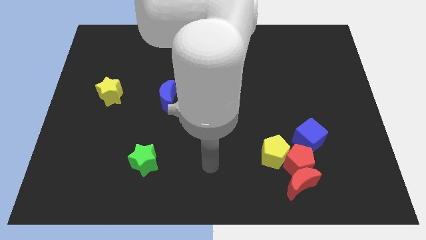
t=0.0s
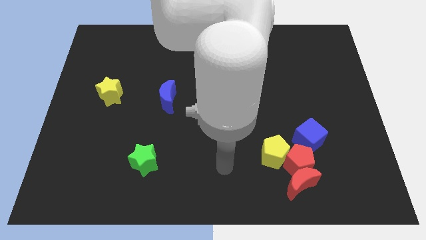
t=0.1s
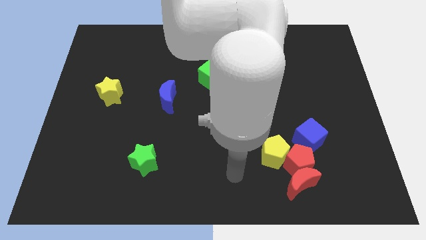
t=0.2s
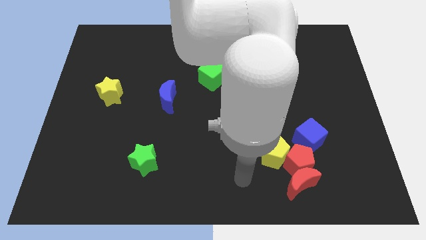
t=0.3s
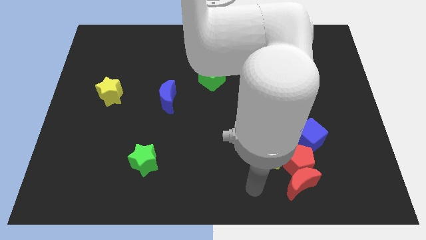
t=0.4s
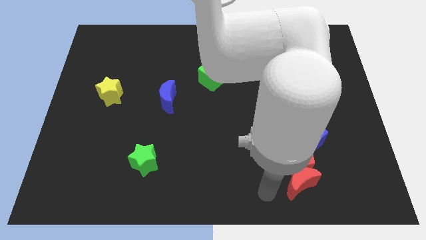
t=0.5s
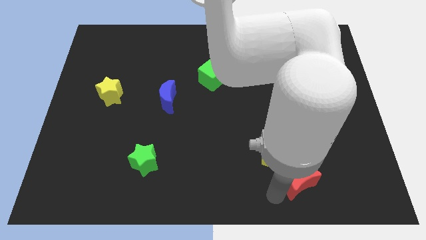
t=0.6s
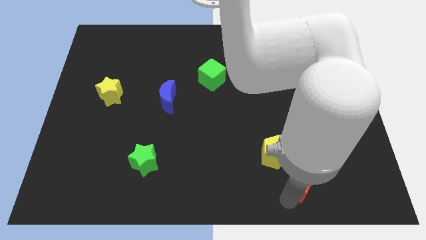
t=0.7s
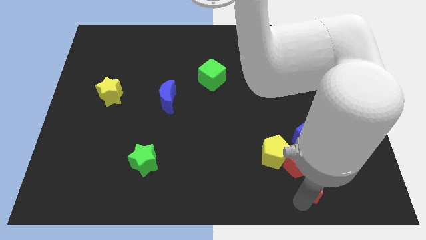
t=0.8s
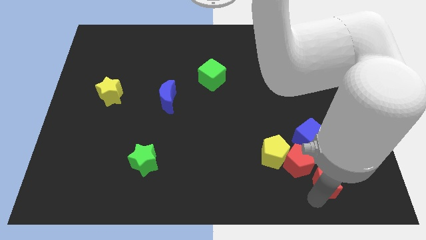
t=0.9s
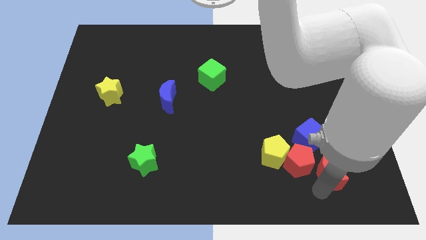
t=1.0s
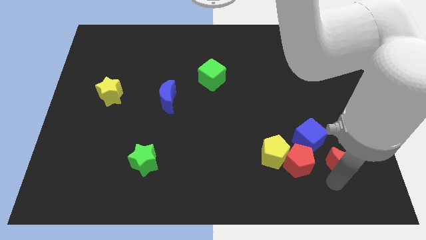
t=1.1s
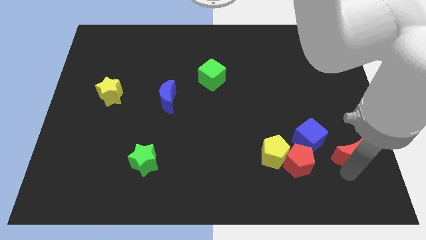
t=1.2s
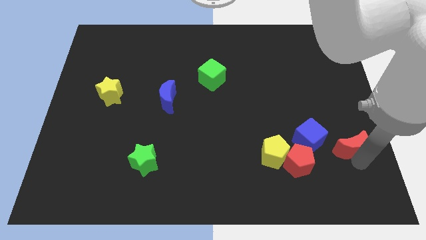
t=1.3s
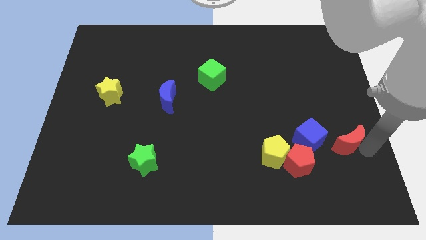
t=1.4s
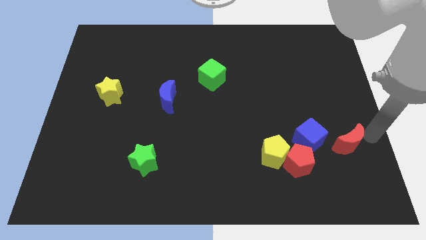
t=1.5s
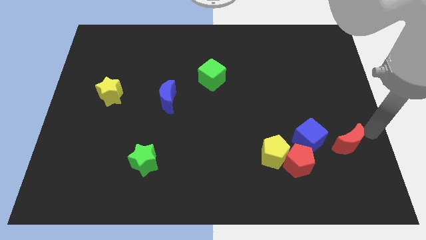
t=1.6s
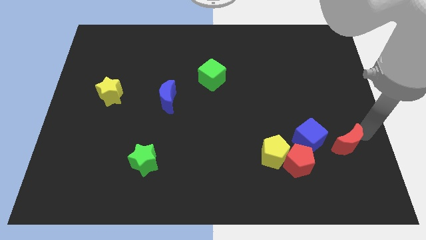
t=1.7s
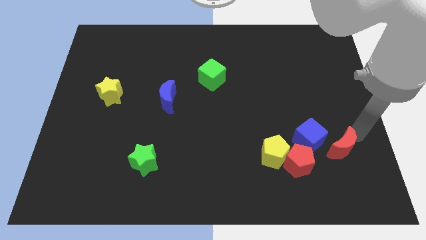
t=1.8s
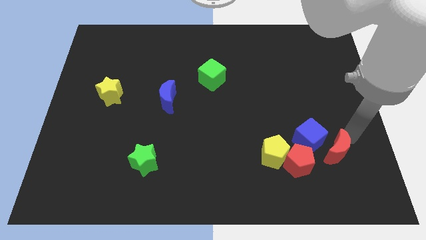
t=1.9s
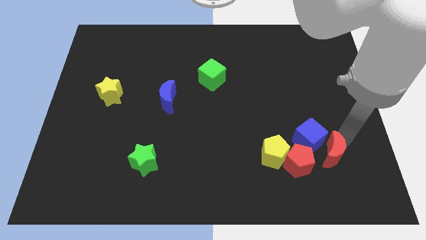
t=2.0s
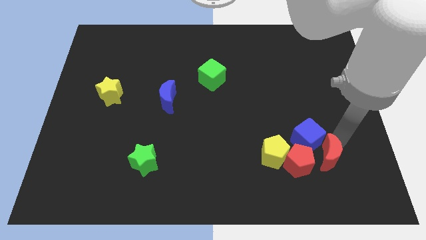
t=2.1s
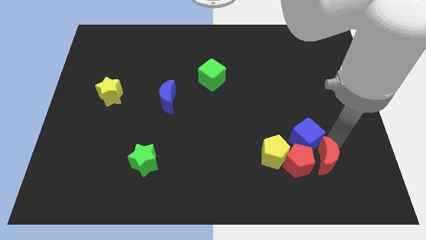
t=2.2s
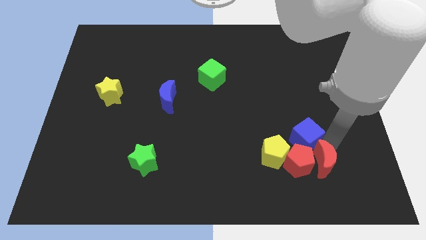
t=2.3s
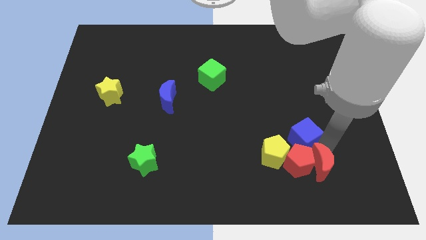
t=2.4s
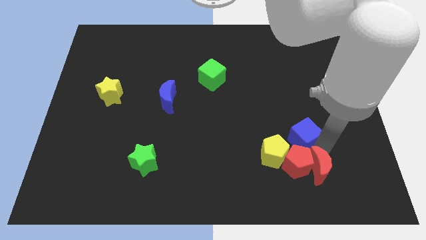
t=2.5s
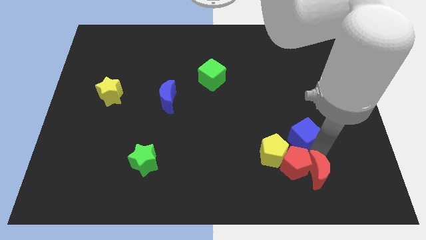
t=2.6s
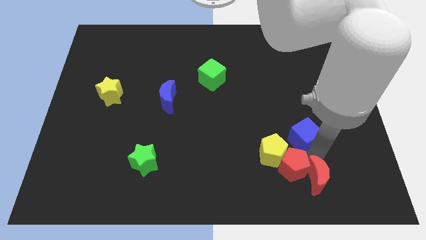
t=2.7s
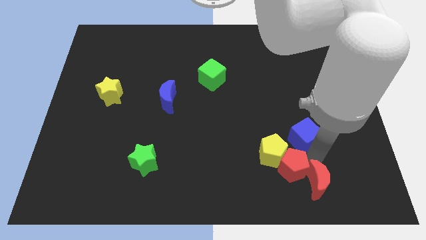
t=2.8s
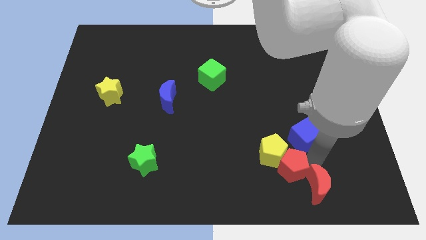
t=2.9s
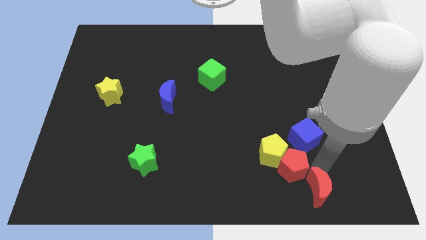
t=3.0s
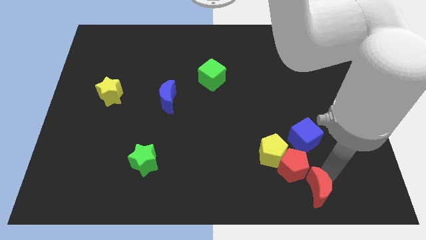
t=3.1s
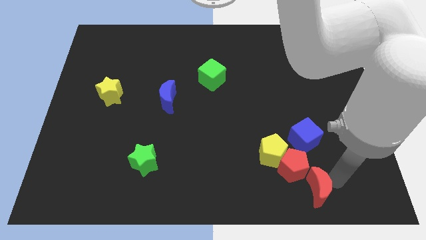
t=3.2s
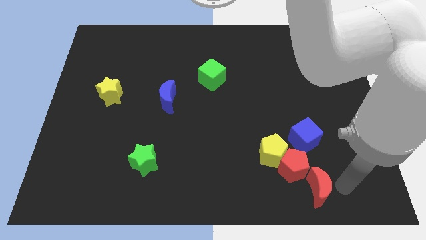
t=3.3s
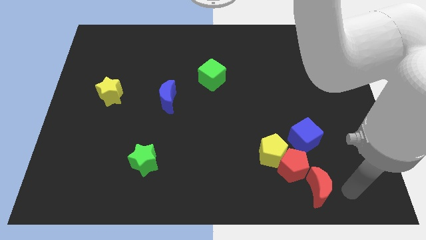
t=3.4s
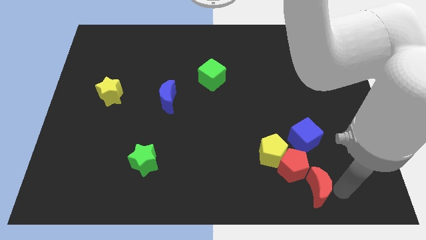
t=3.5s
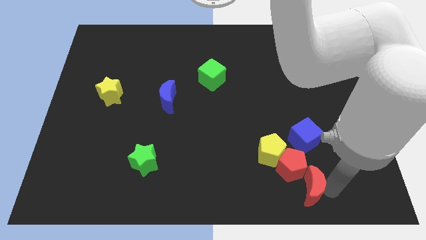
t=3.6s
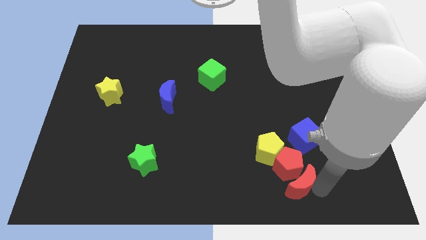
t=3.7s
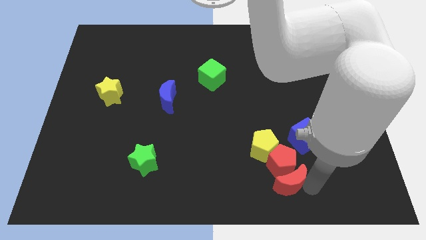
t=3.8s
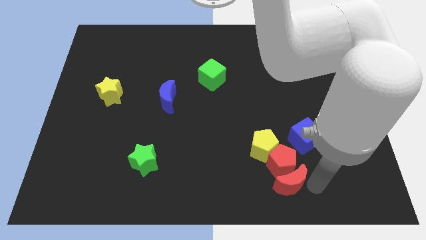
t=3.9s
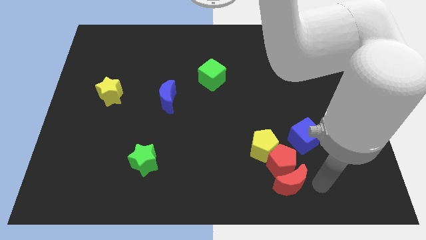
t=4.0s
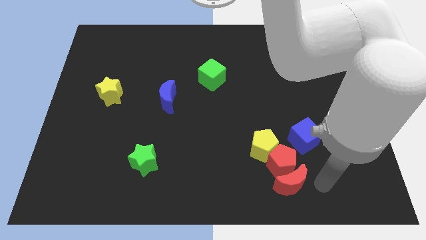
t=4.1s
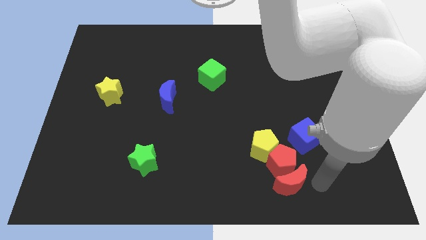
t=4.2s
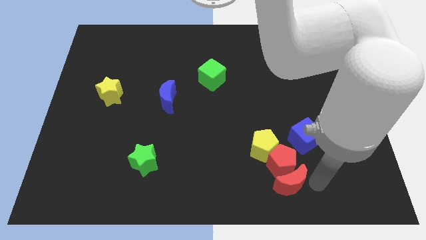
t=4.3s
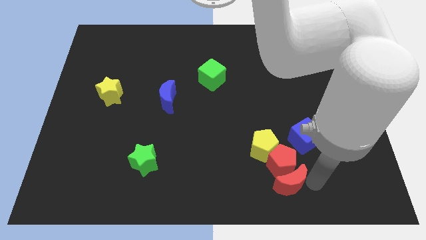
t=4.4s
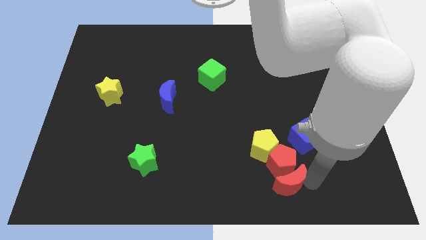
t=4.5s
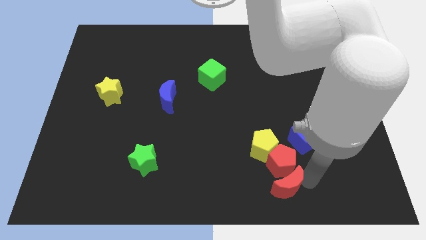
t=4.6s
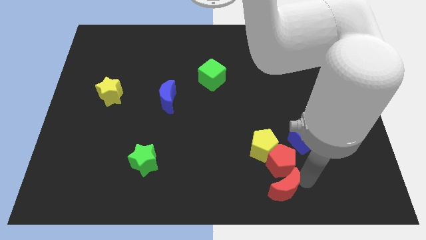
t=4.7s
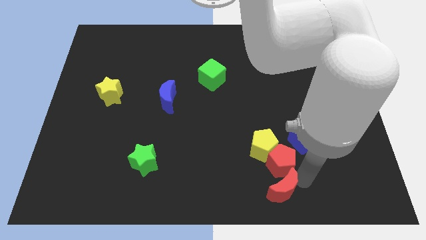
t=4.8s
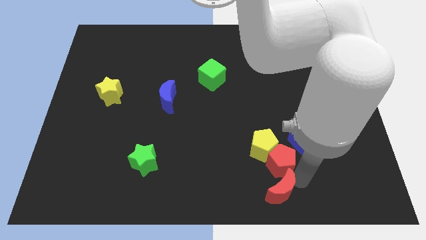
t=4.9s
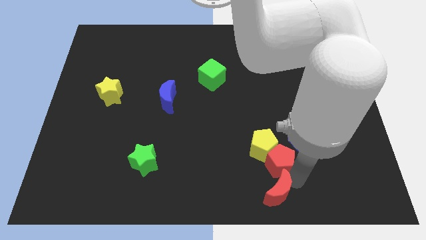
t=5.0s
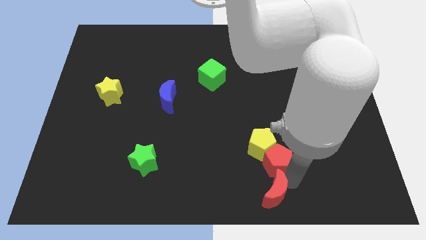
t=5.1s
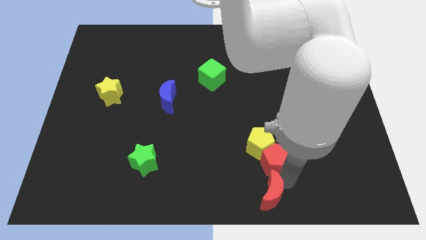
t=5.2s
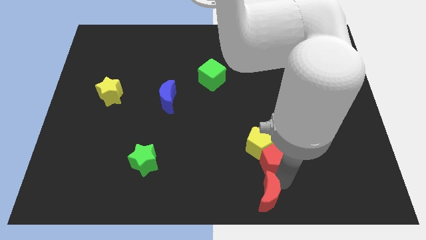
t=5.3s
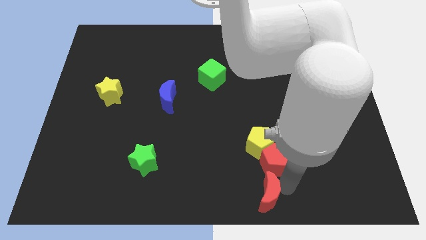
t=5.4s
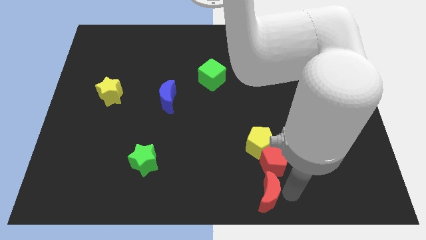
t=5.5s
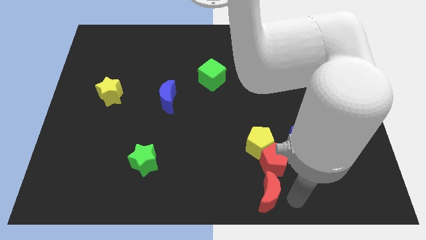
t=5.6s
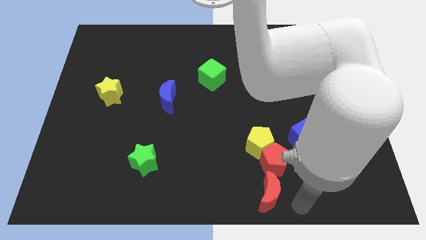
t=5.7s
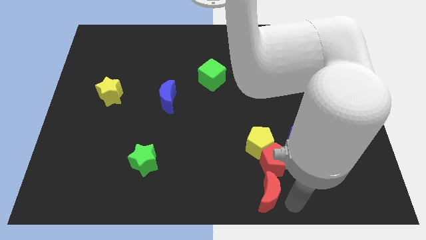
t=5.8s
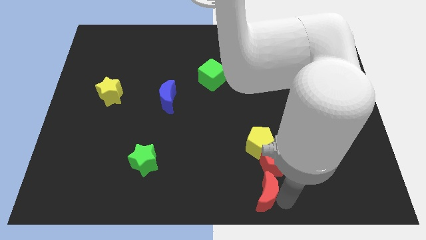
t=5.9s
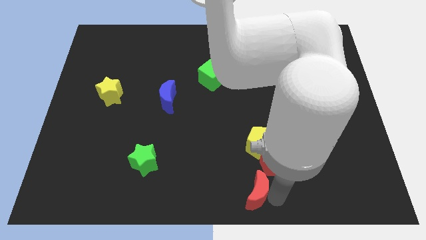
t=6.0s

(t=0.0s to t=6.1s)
slightly move the red moon to the left

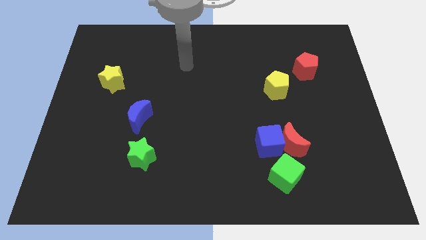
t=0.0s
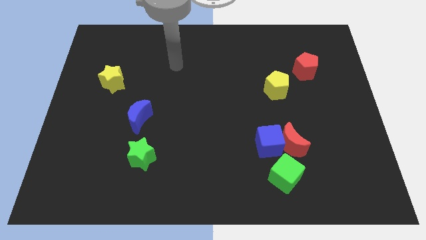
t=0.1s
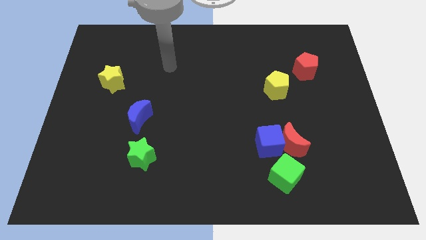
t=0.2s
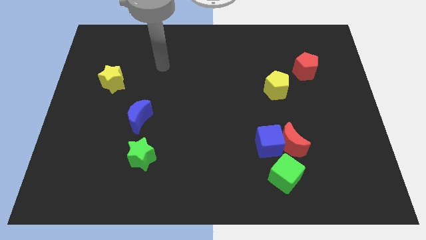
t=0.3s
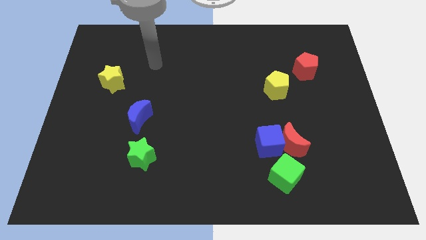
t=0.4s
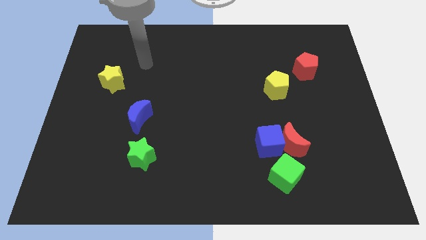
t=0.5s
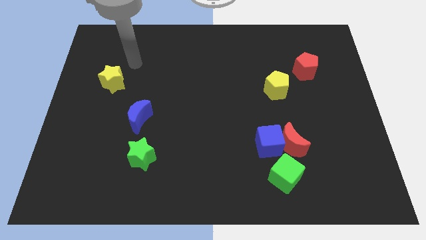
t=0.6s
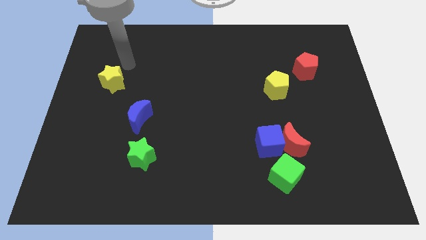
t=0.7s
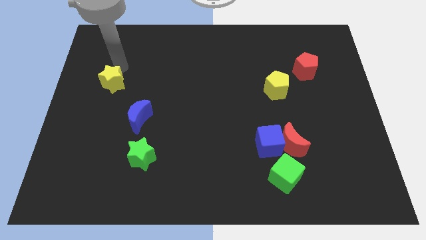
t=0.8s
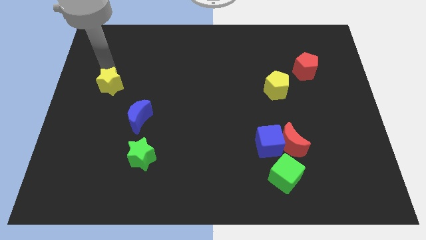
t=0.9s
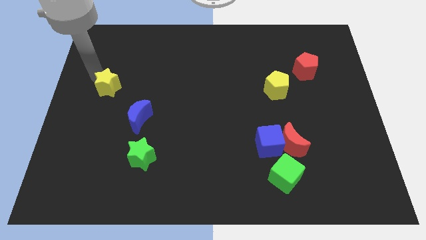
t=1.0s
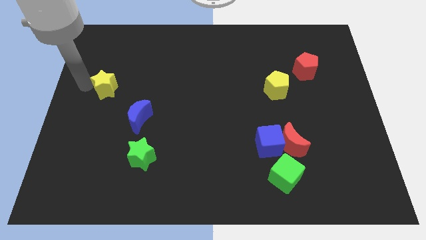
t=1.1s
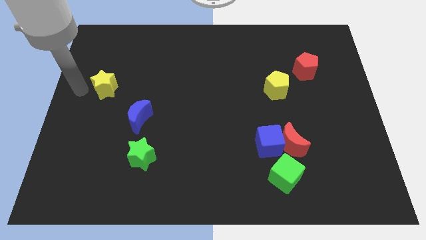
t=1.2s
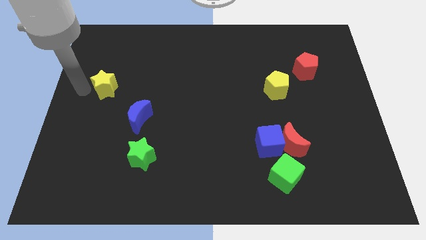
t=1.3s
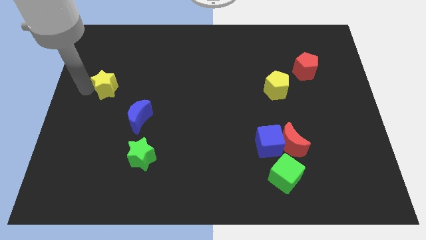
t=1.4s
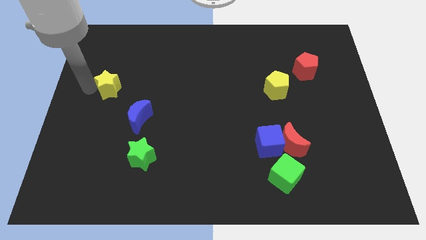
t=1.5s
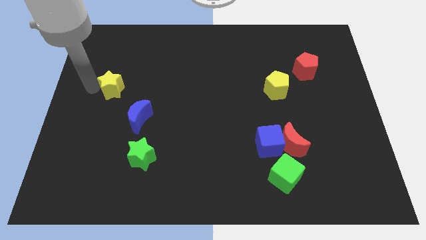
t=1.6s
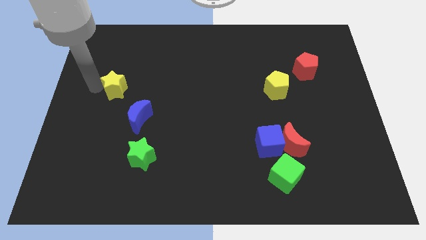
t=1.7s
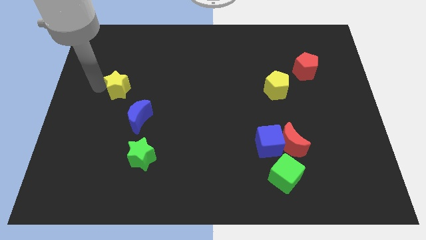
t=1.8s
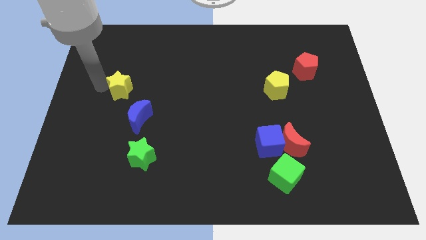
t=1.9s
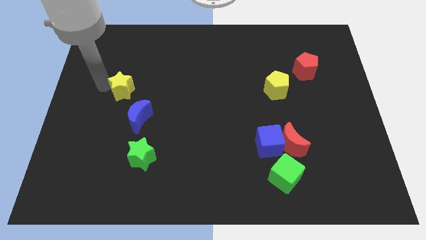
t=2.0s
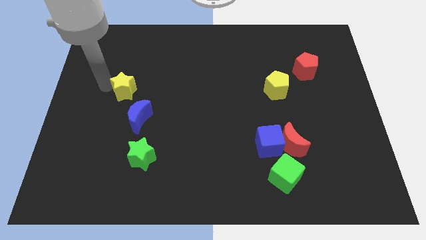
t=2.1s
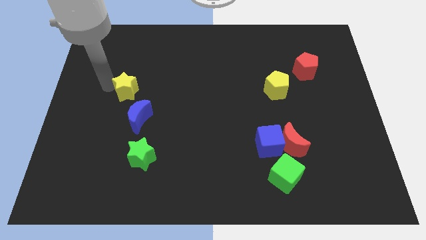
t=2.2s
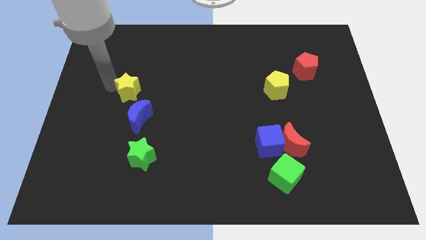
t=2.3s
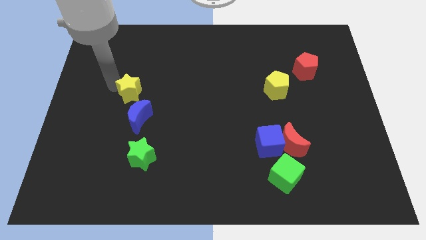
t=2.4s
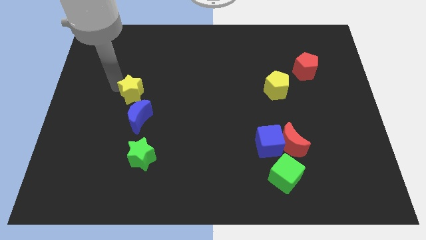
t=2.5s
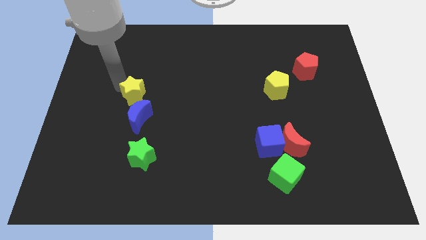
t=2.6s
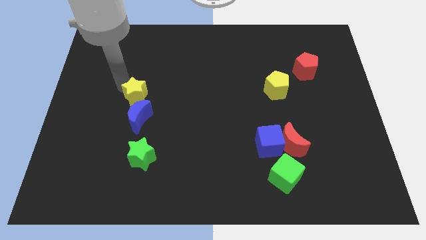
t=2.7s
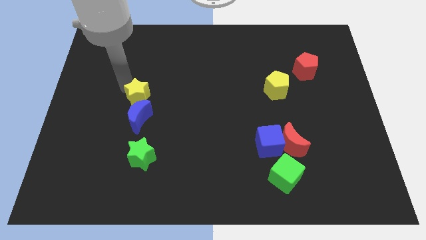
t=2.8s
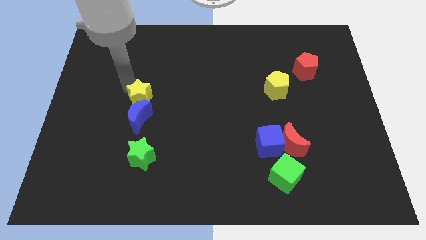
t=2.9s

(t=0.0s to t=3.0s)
slightly move the yellow star right
